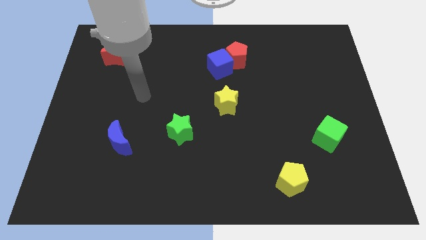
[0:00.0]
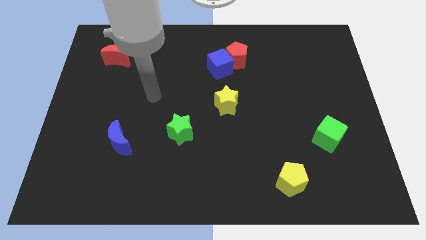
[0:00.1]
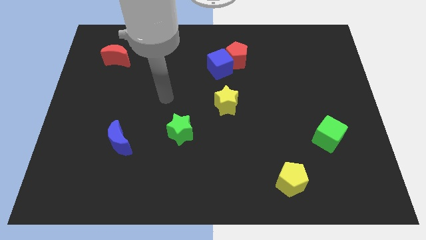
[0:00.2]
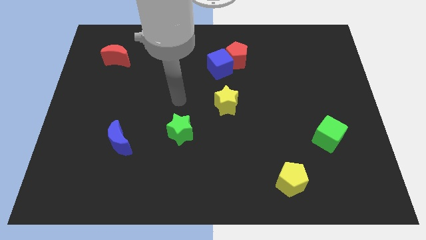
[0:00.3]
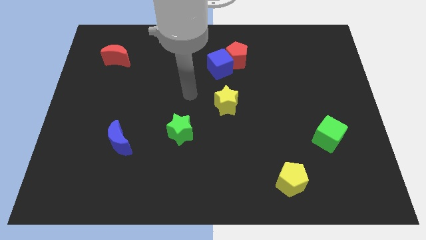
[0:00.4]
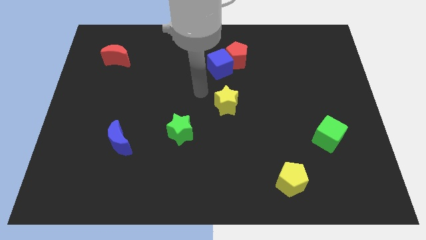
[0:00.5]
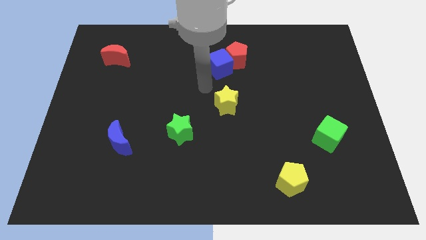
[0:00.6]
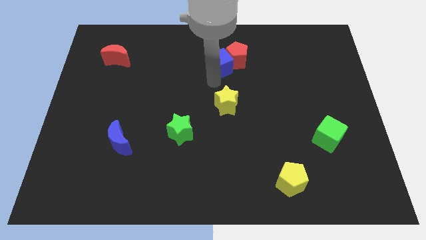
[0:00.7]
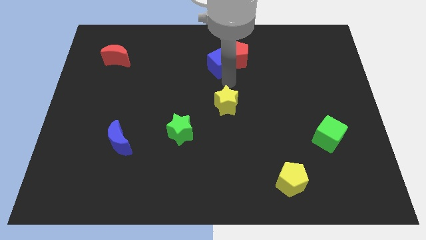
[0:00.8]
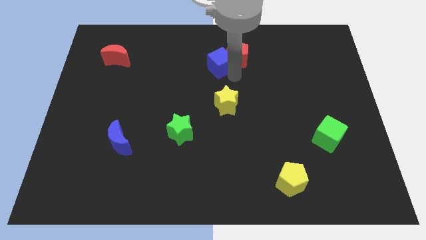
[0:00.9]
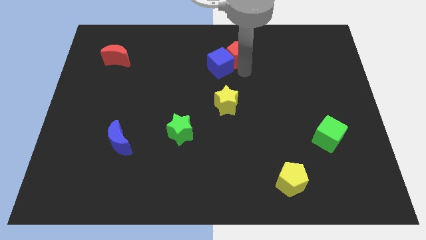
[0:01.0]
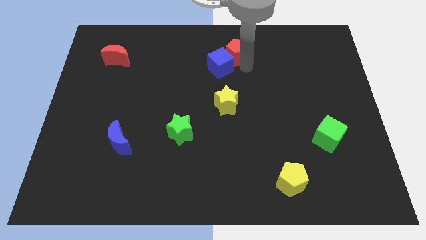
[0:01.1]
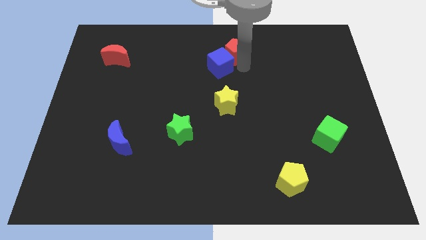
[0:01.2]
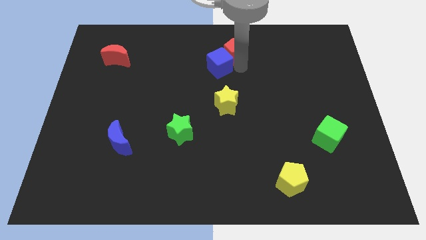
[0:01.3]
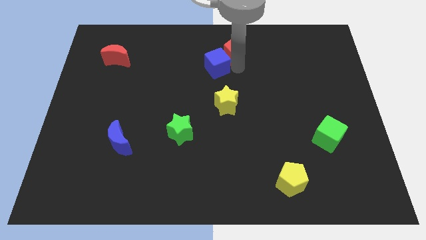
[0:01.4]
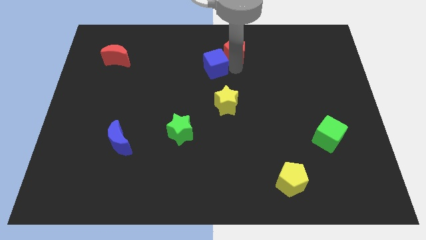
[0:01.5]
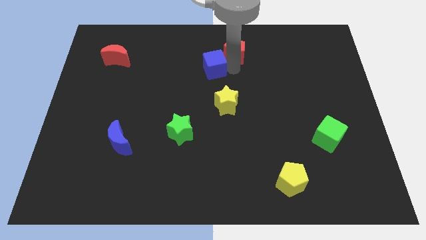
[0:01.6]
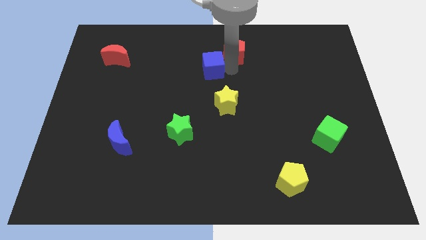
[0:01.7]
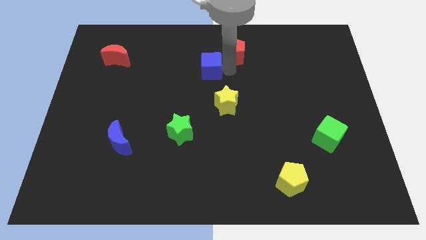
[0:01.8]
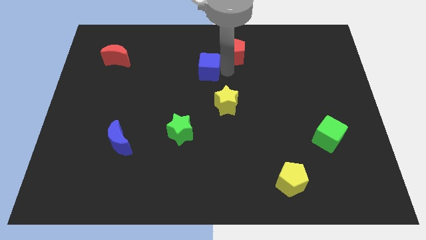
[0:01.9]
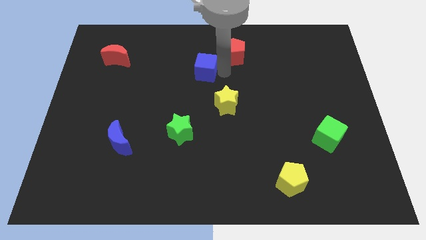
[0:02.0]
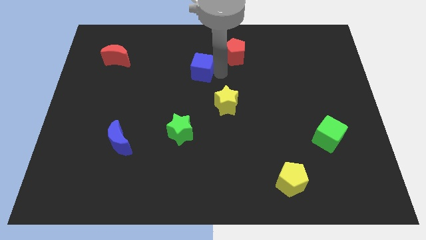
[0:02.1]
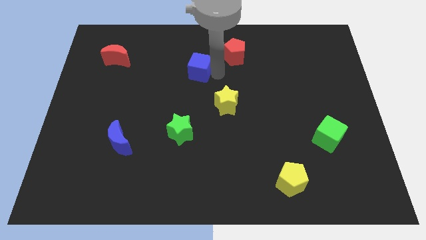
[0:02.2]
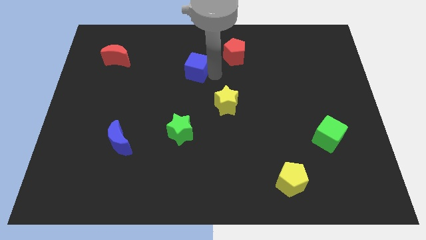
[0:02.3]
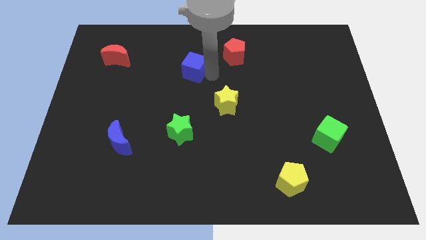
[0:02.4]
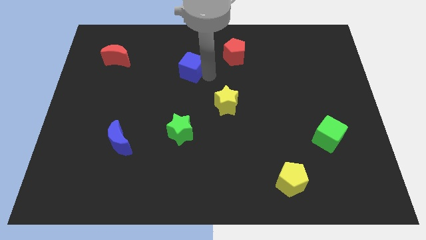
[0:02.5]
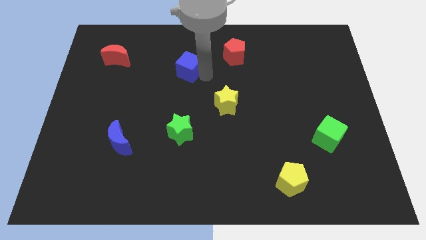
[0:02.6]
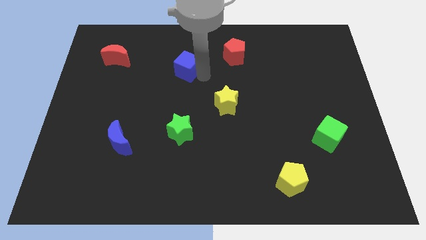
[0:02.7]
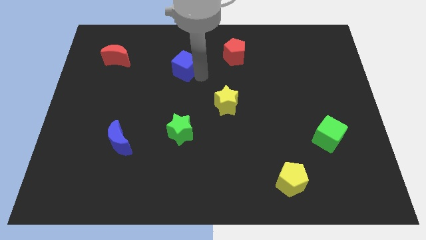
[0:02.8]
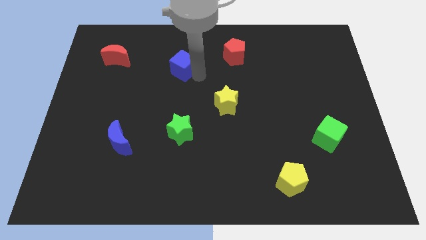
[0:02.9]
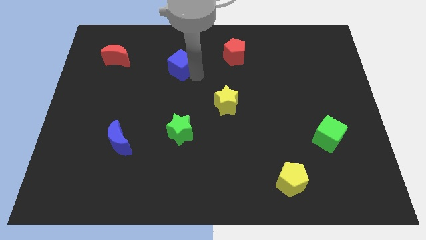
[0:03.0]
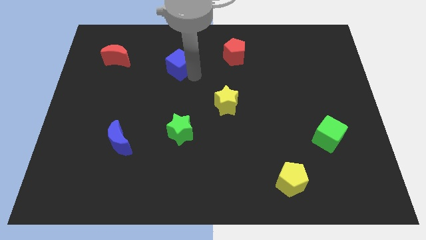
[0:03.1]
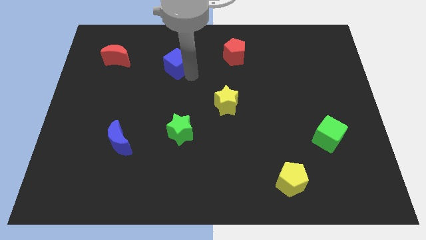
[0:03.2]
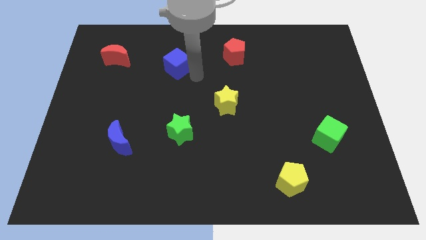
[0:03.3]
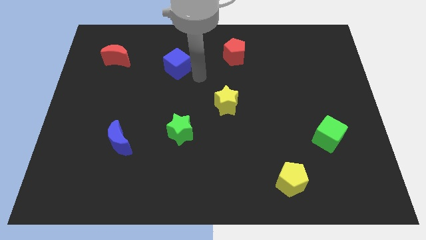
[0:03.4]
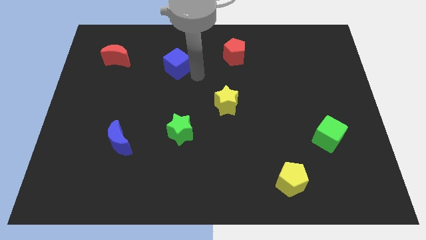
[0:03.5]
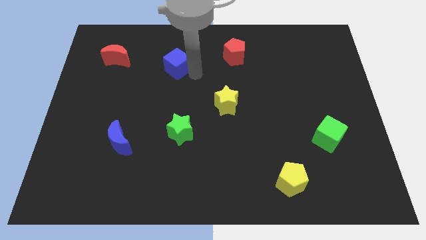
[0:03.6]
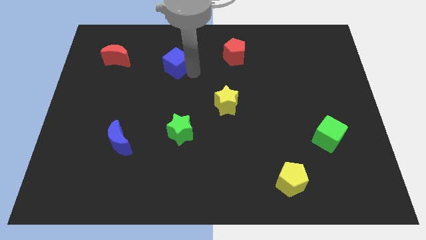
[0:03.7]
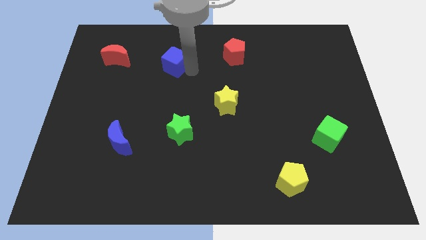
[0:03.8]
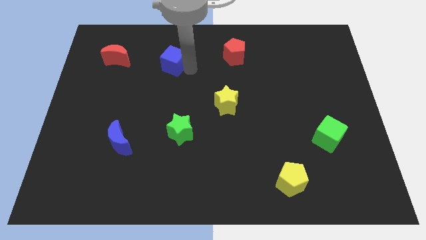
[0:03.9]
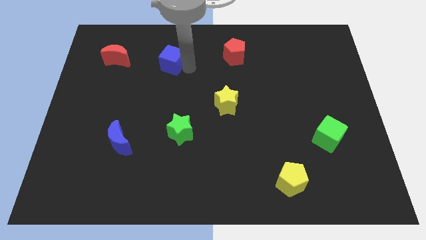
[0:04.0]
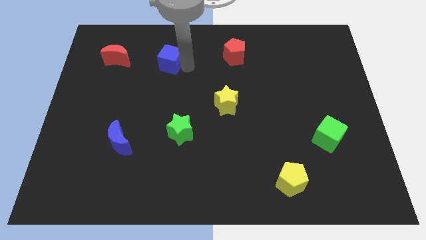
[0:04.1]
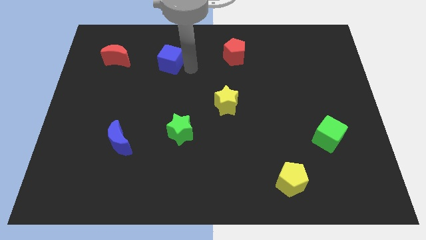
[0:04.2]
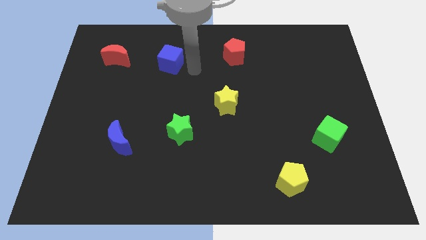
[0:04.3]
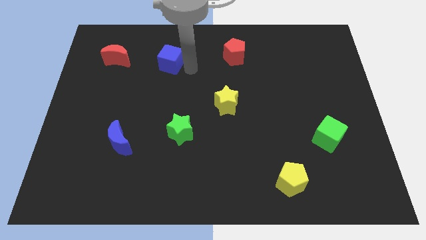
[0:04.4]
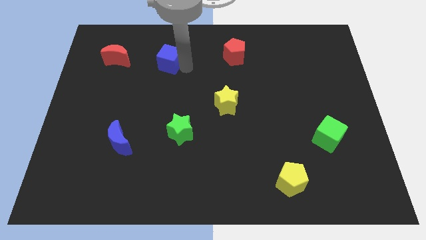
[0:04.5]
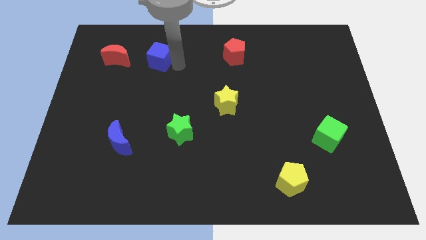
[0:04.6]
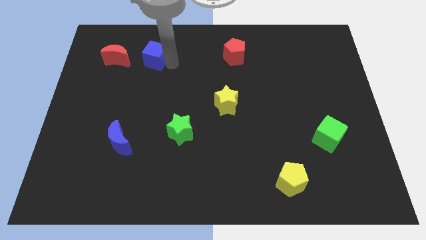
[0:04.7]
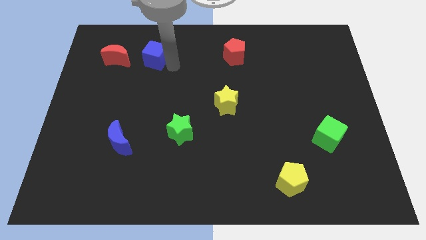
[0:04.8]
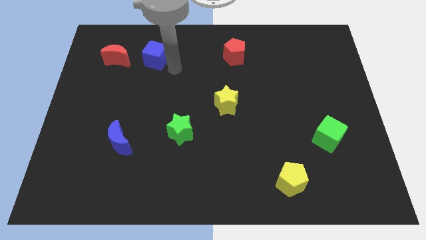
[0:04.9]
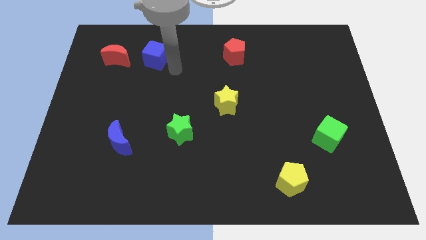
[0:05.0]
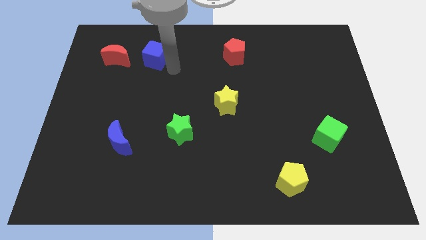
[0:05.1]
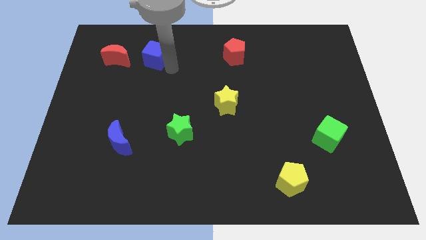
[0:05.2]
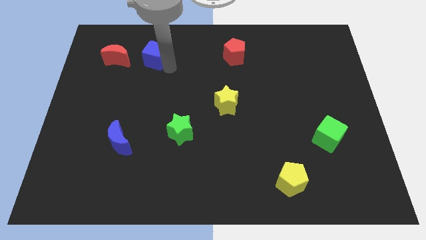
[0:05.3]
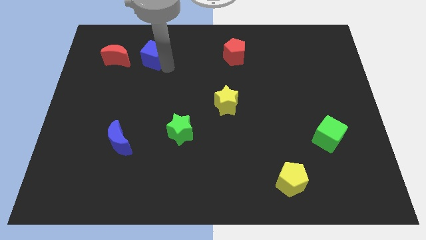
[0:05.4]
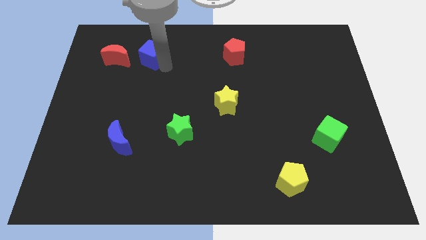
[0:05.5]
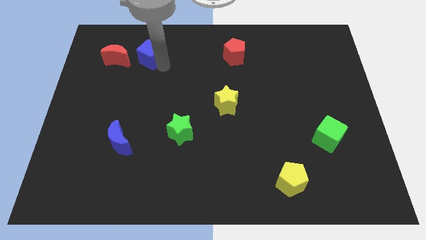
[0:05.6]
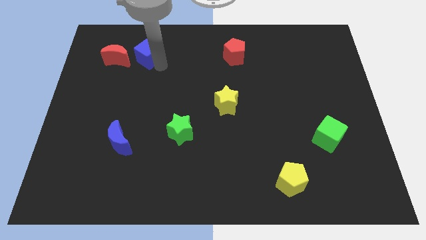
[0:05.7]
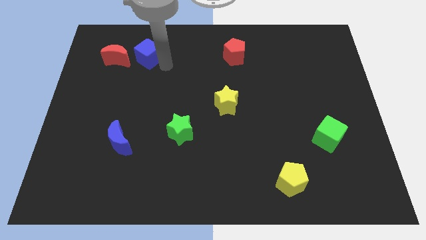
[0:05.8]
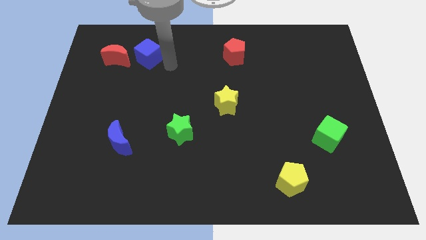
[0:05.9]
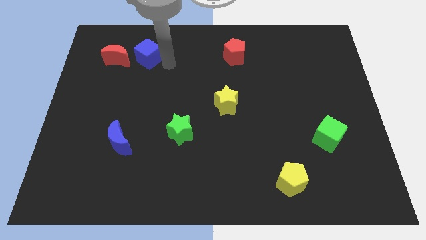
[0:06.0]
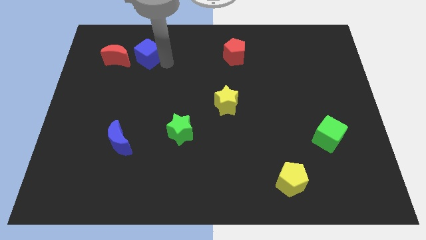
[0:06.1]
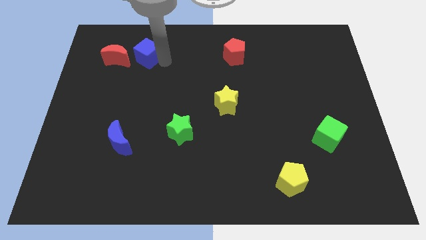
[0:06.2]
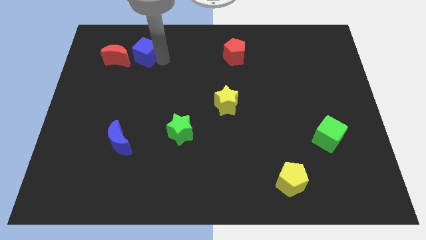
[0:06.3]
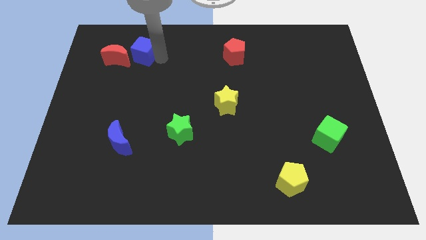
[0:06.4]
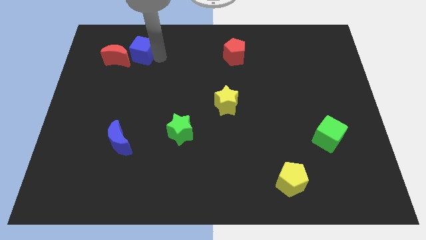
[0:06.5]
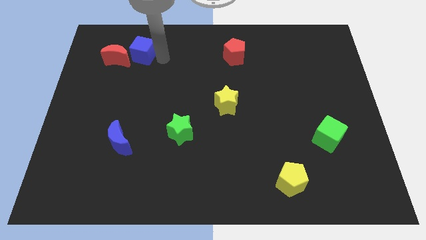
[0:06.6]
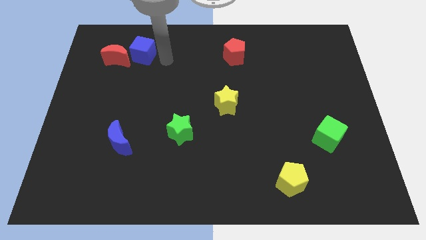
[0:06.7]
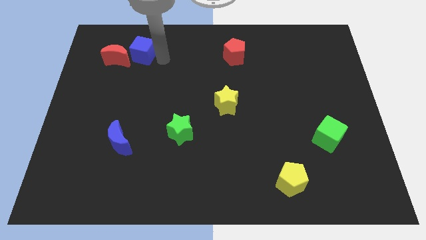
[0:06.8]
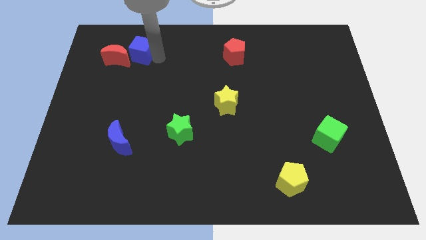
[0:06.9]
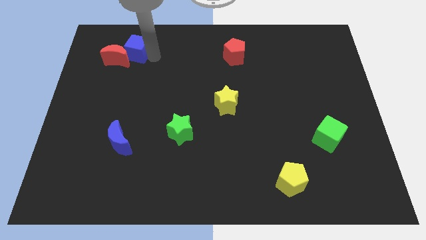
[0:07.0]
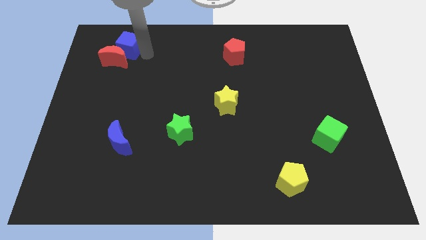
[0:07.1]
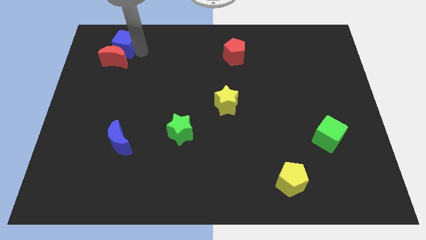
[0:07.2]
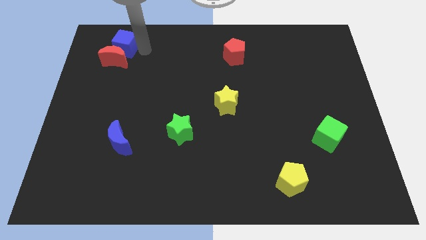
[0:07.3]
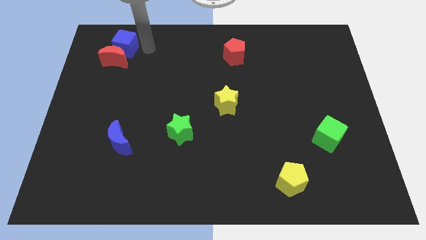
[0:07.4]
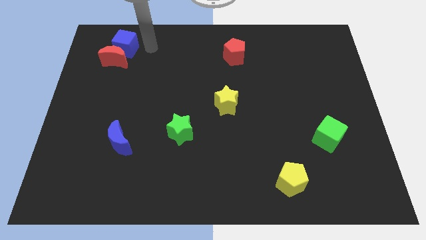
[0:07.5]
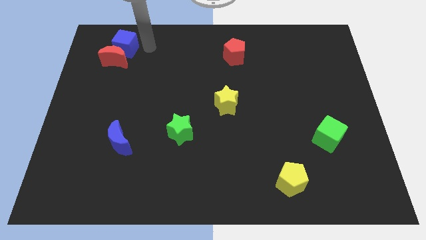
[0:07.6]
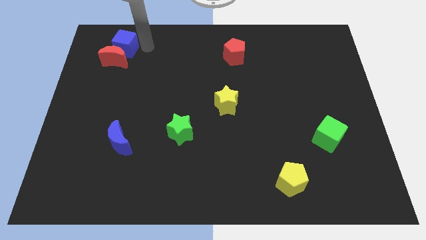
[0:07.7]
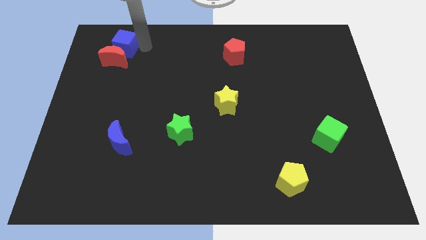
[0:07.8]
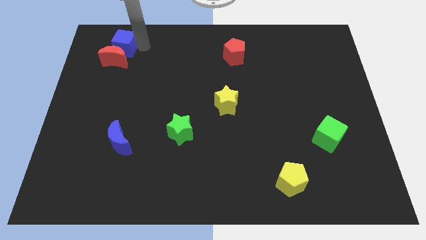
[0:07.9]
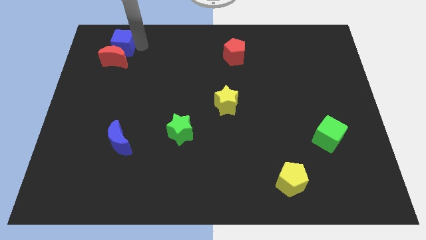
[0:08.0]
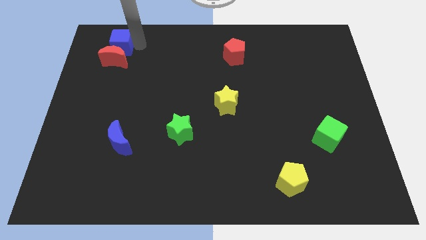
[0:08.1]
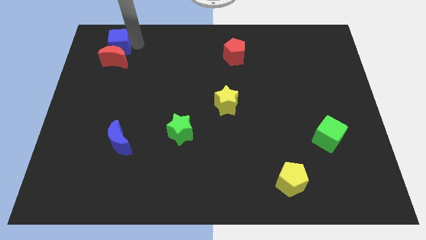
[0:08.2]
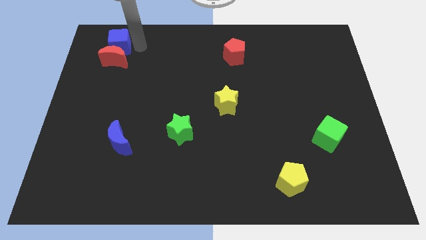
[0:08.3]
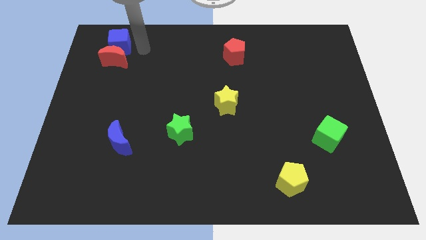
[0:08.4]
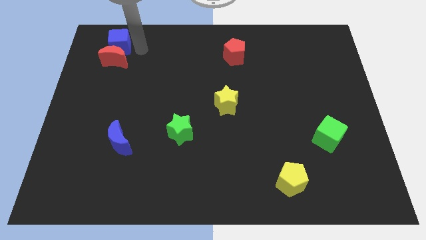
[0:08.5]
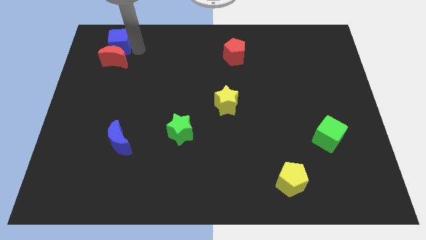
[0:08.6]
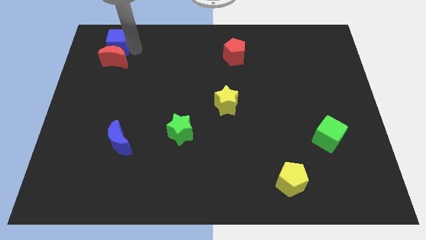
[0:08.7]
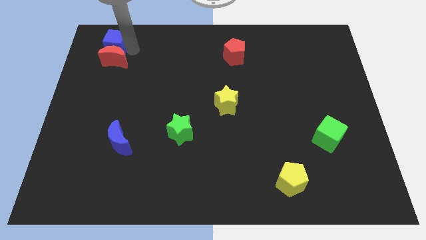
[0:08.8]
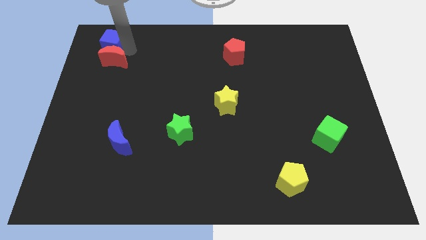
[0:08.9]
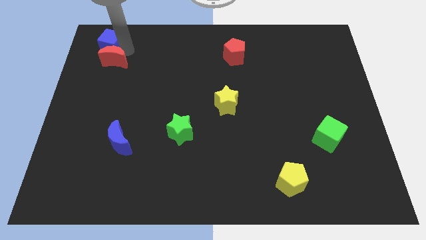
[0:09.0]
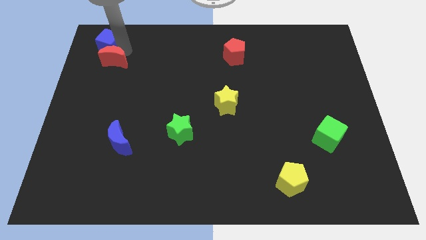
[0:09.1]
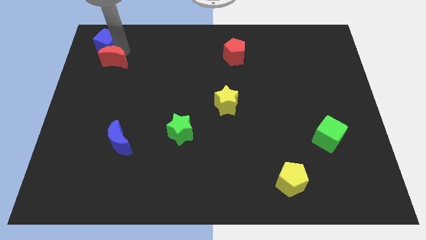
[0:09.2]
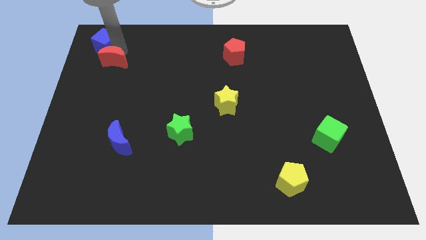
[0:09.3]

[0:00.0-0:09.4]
move the blue cube to the upper left corner
